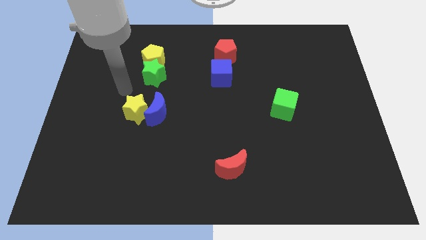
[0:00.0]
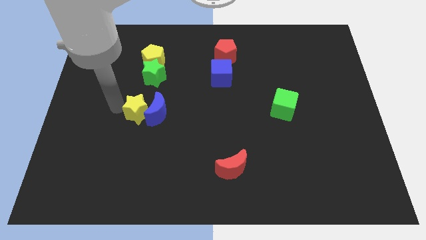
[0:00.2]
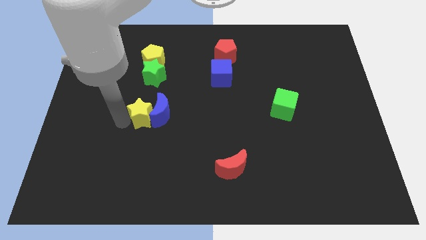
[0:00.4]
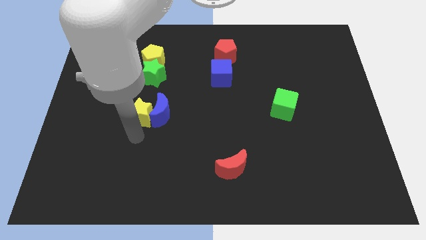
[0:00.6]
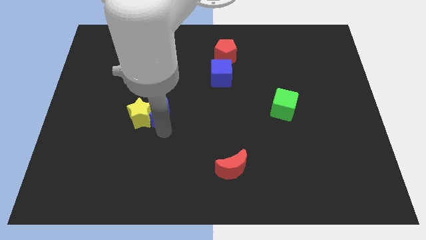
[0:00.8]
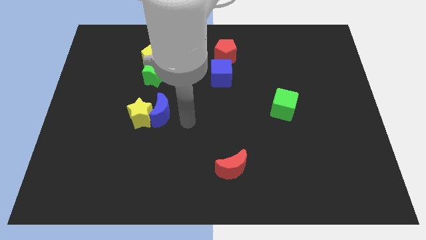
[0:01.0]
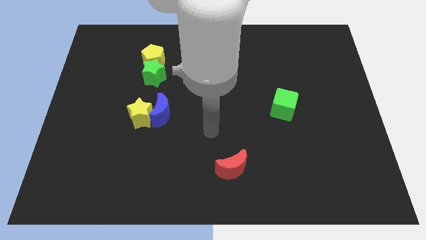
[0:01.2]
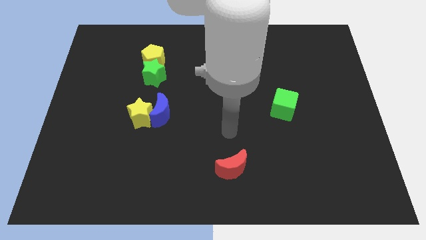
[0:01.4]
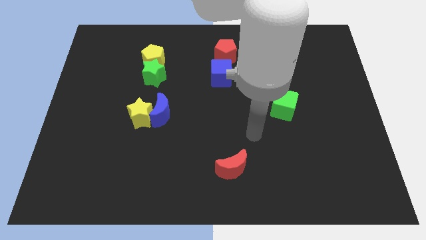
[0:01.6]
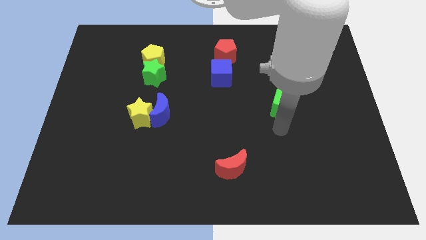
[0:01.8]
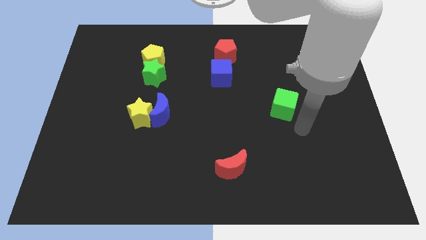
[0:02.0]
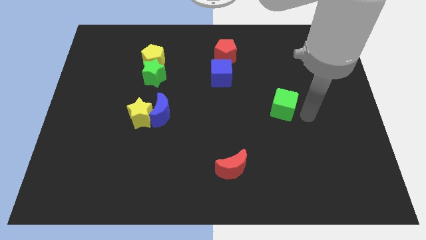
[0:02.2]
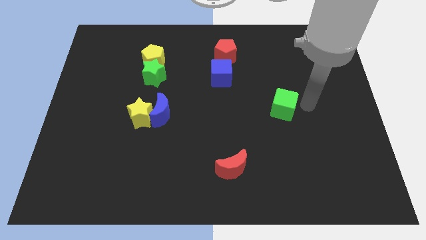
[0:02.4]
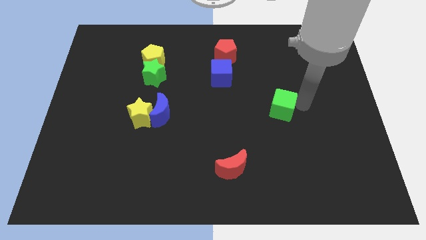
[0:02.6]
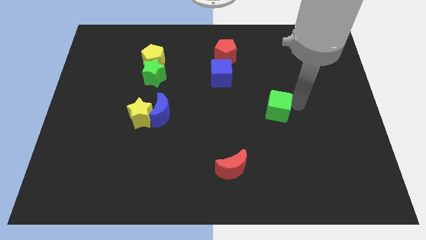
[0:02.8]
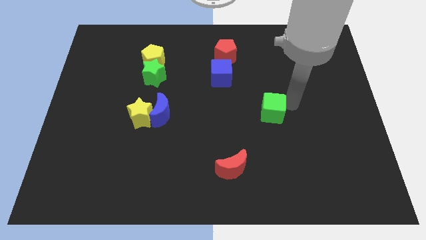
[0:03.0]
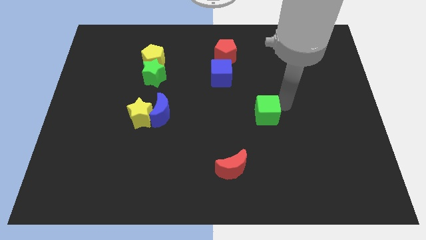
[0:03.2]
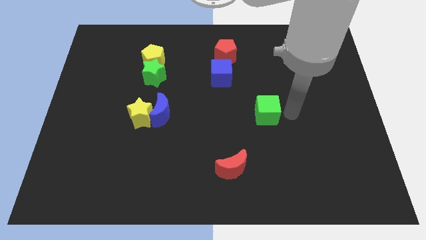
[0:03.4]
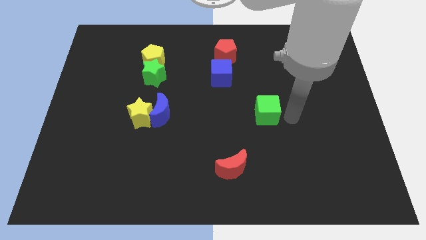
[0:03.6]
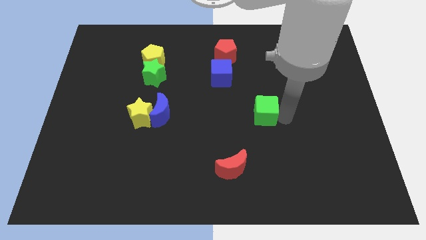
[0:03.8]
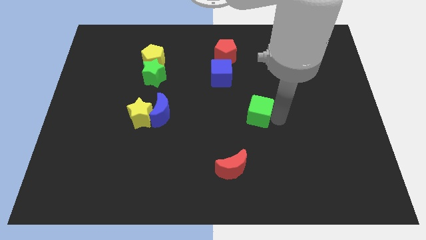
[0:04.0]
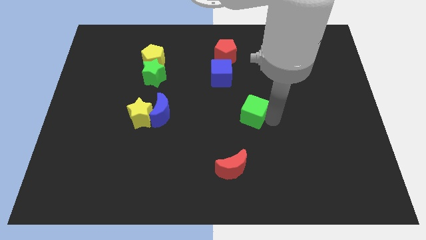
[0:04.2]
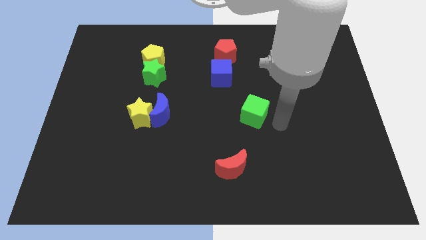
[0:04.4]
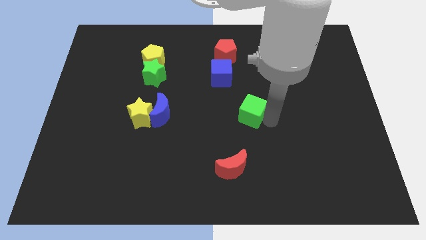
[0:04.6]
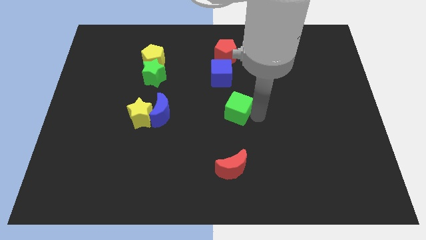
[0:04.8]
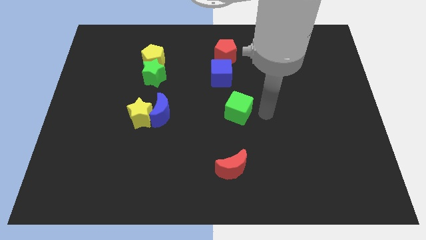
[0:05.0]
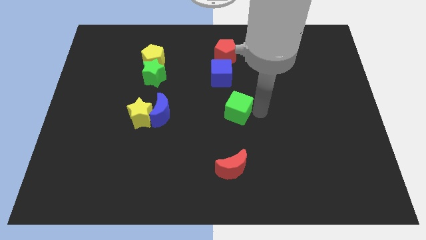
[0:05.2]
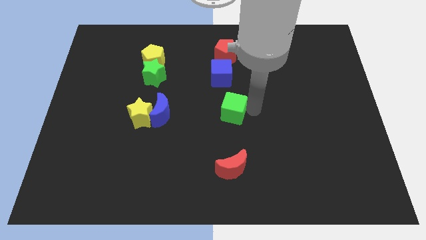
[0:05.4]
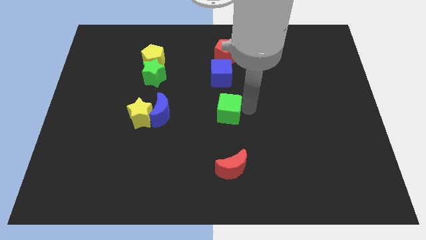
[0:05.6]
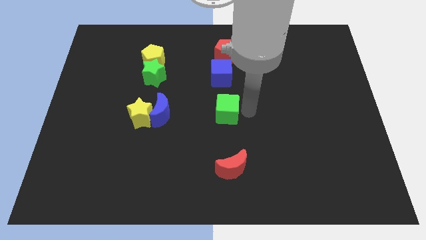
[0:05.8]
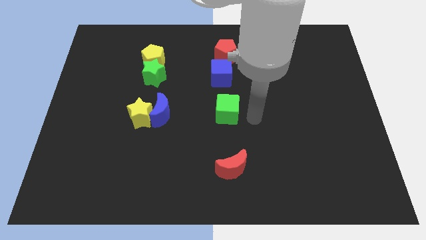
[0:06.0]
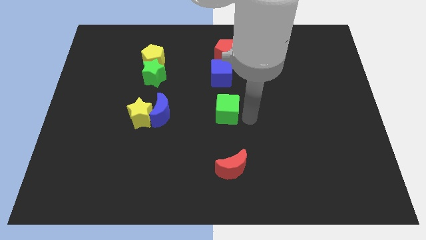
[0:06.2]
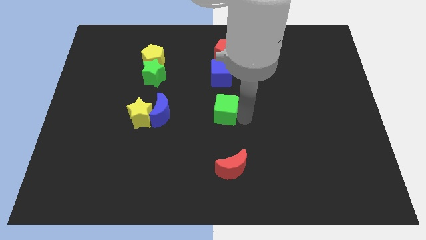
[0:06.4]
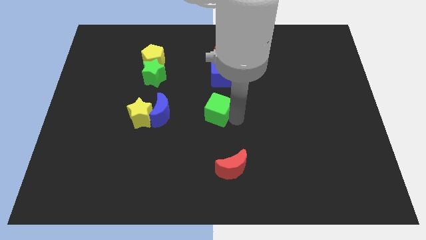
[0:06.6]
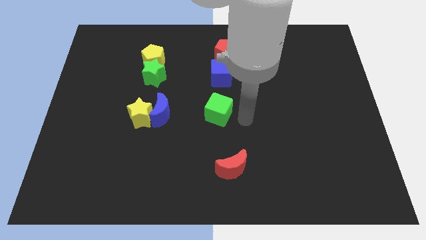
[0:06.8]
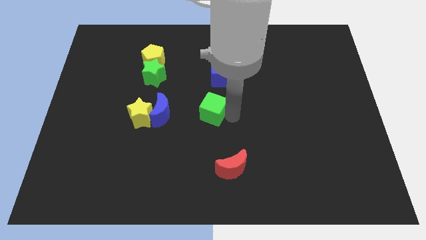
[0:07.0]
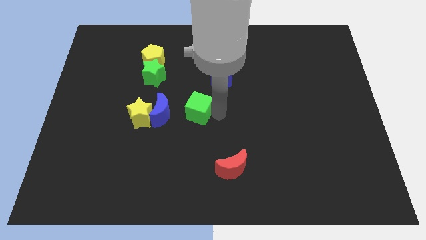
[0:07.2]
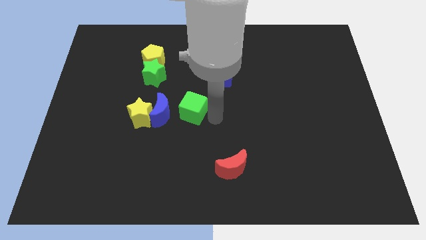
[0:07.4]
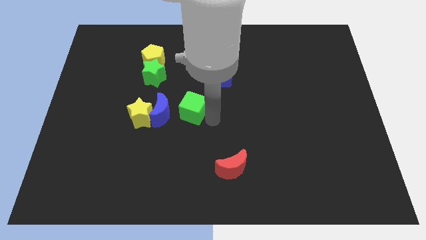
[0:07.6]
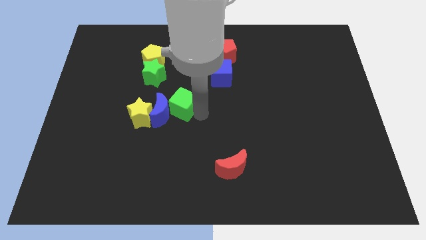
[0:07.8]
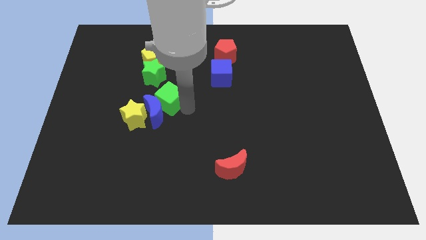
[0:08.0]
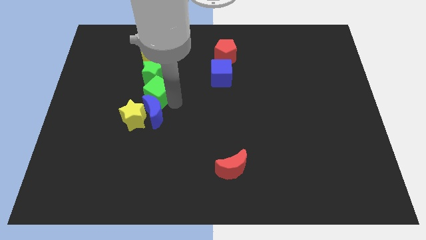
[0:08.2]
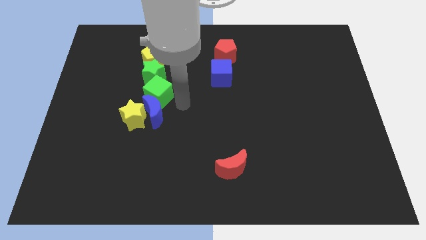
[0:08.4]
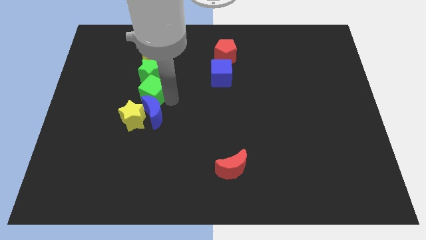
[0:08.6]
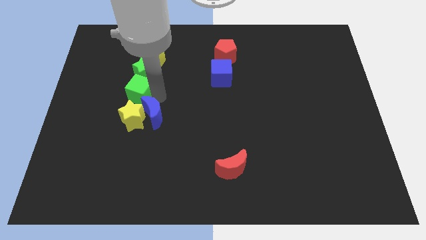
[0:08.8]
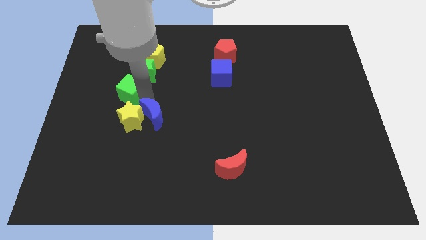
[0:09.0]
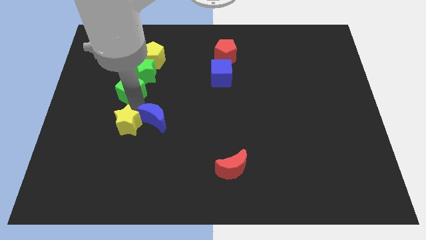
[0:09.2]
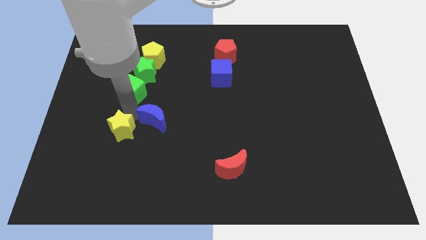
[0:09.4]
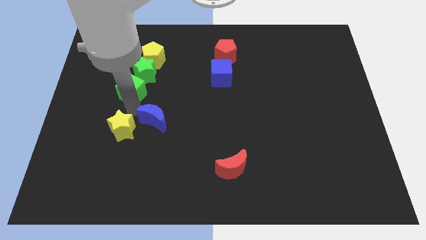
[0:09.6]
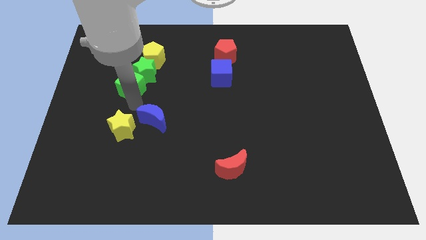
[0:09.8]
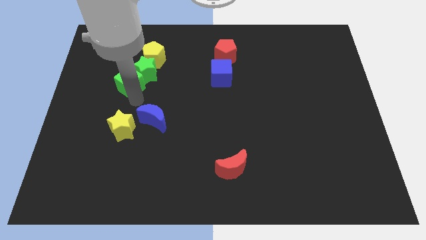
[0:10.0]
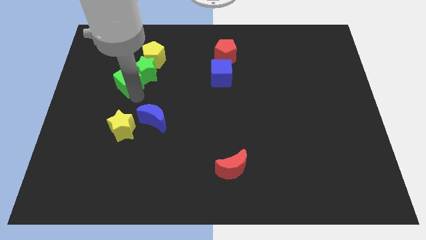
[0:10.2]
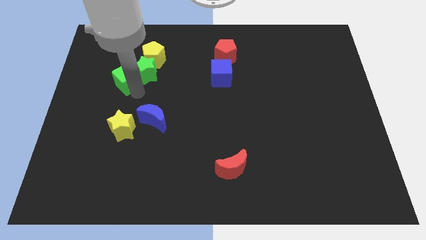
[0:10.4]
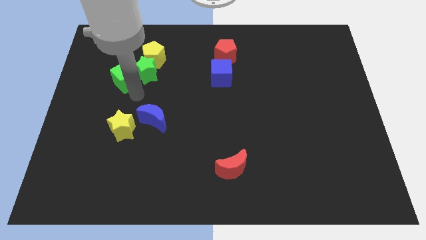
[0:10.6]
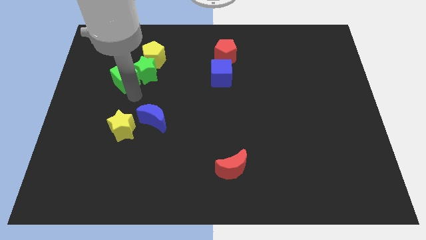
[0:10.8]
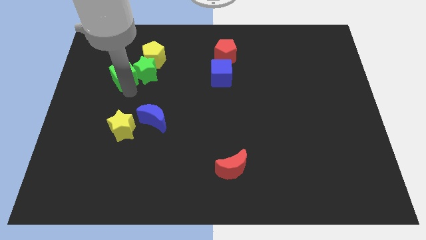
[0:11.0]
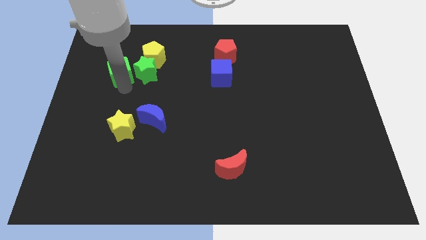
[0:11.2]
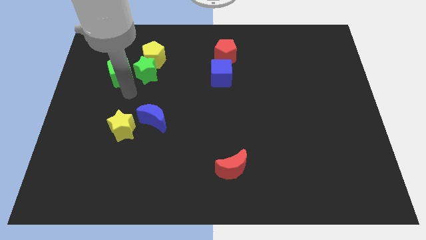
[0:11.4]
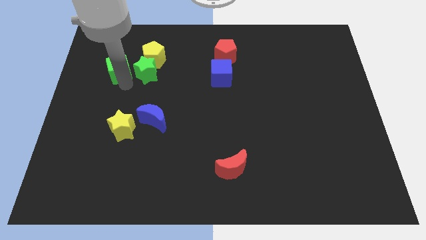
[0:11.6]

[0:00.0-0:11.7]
slide the green cube to the left of the yellow pentagon
